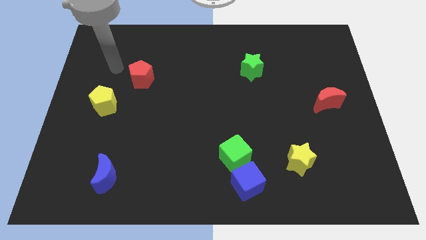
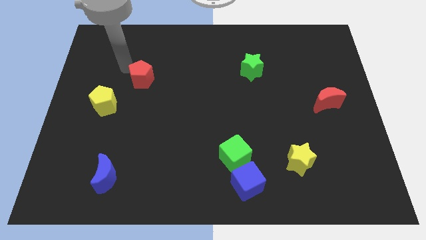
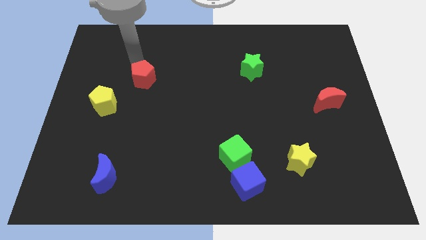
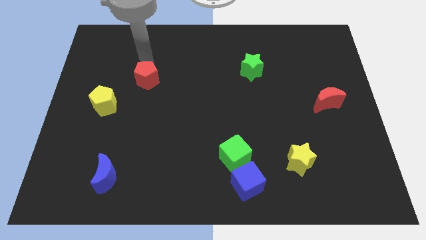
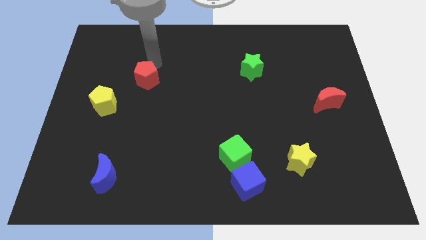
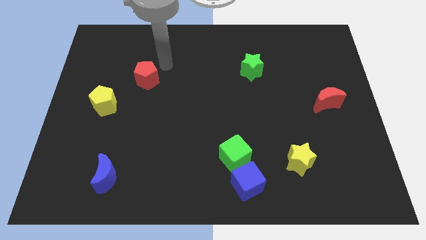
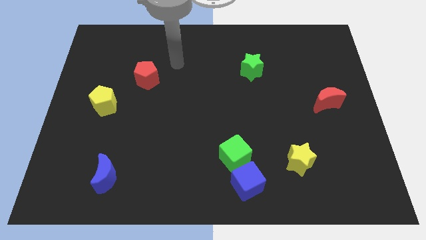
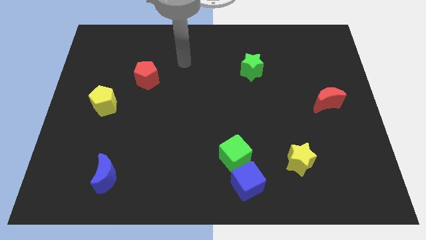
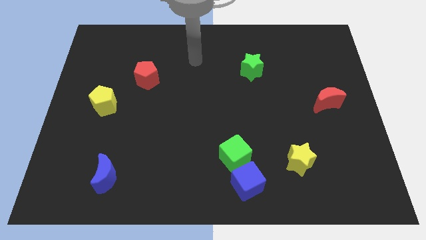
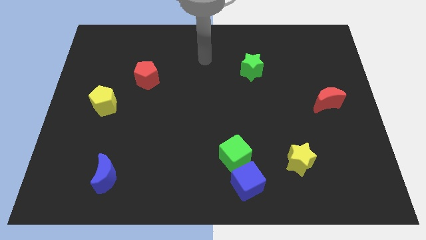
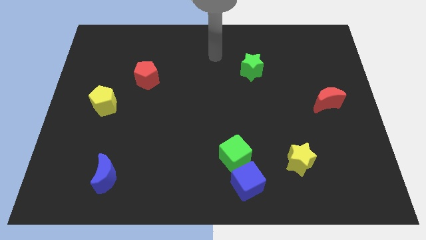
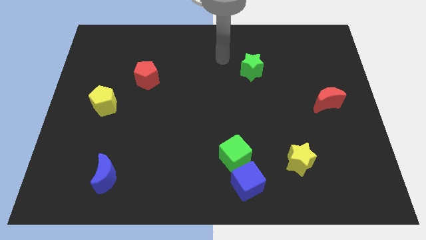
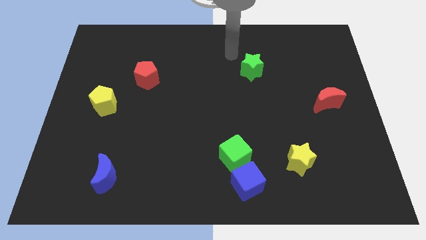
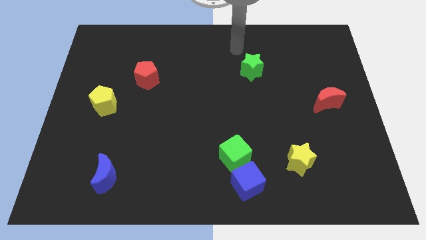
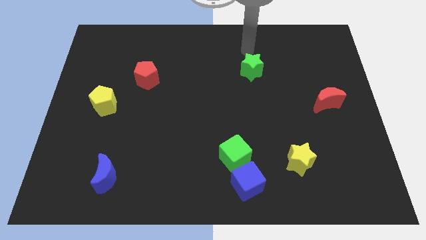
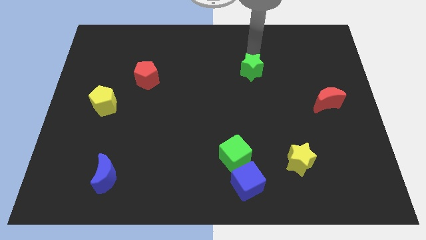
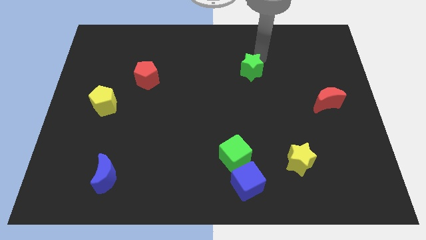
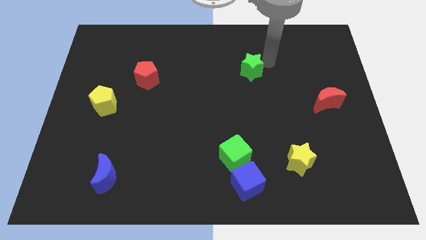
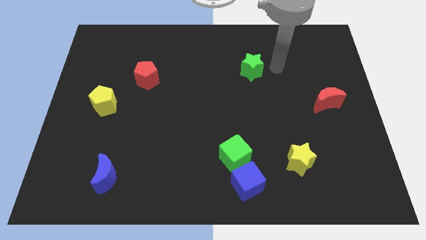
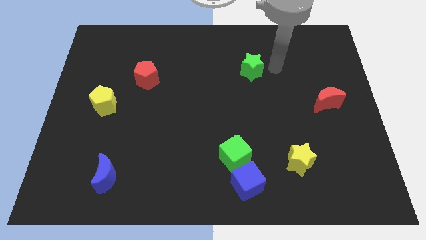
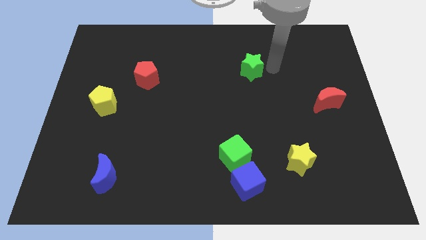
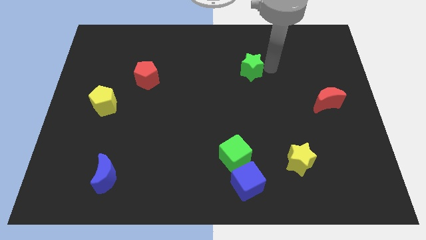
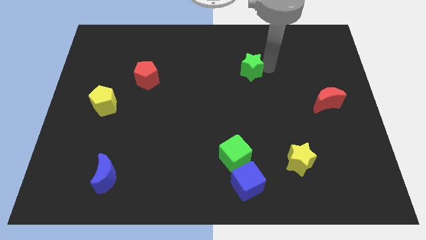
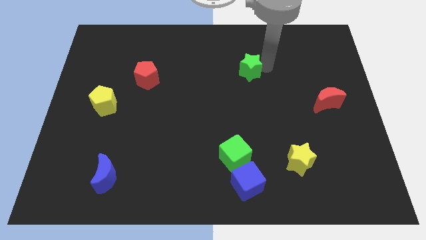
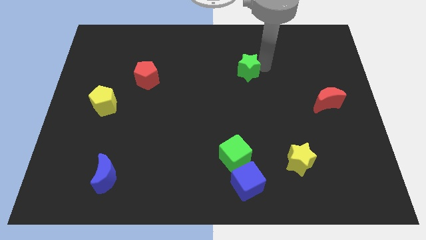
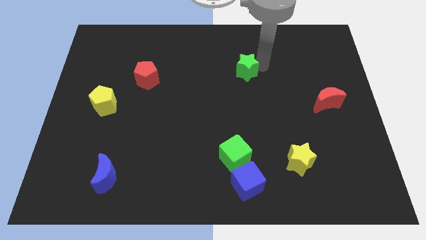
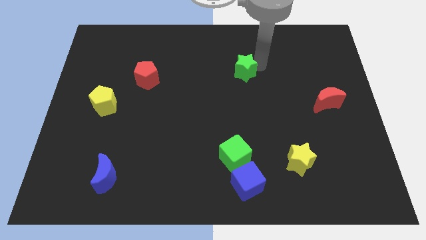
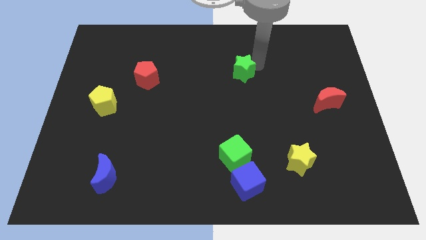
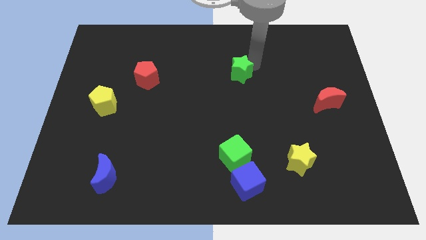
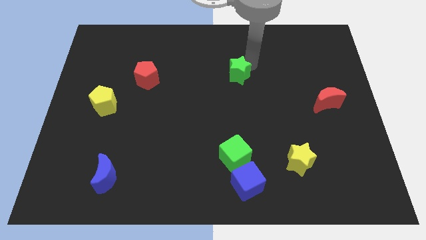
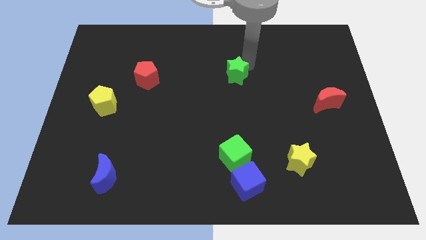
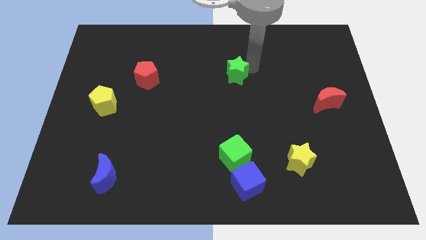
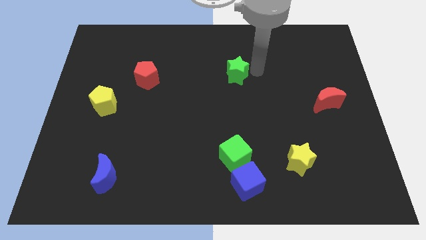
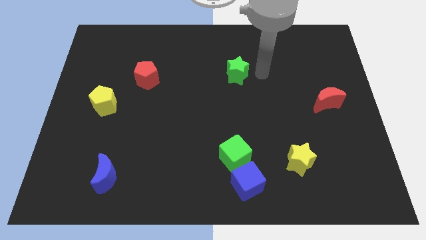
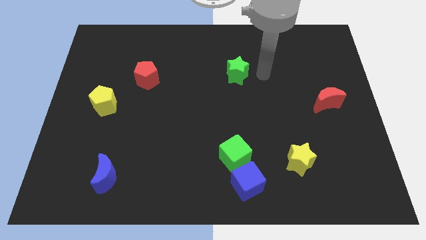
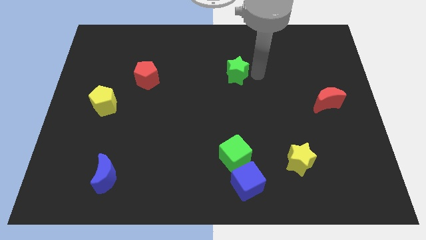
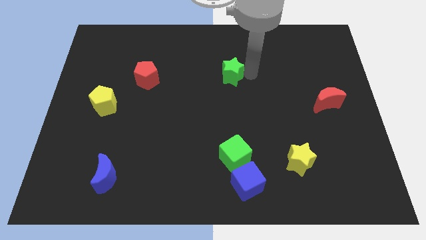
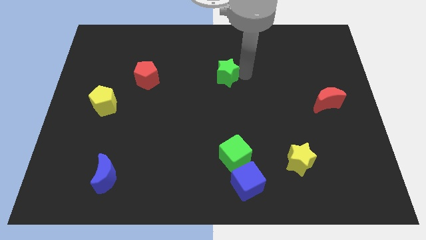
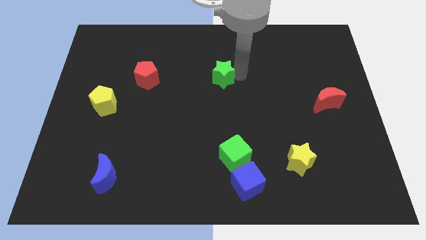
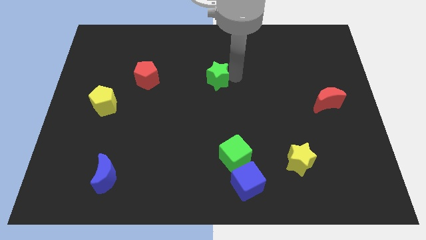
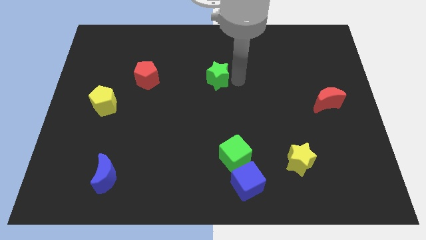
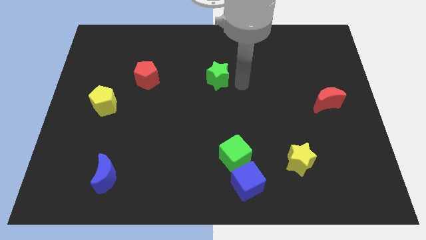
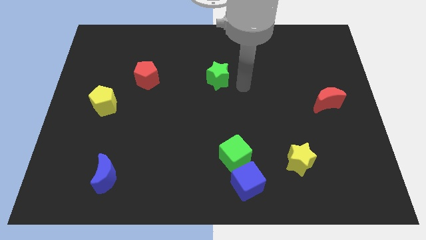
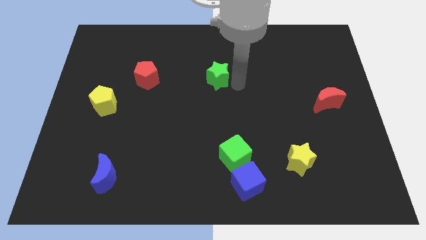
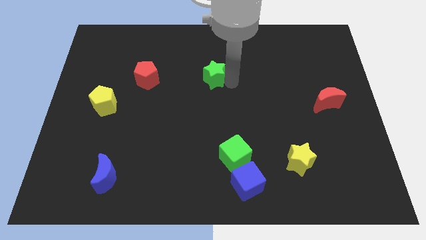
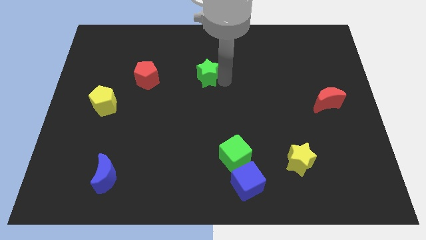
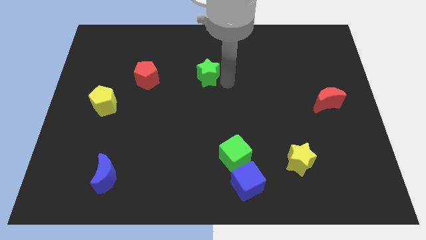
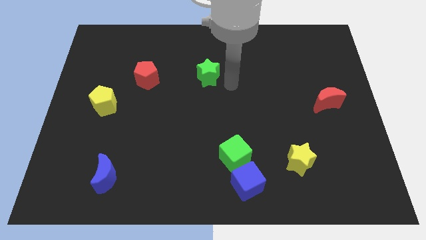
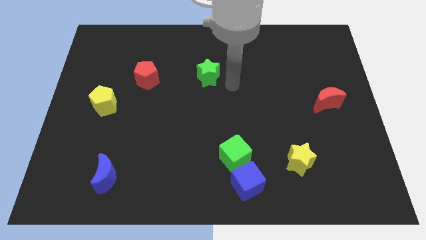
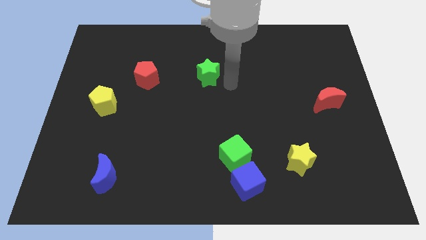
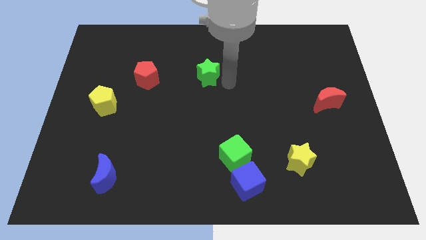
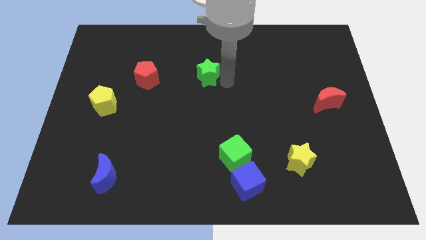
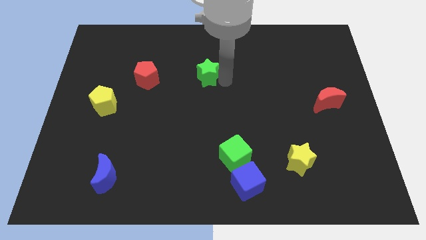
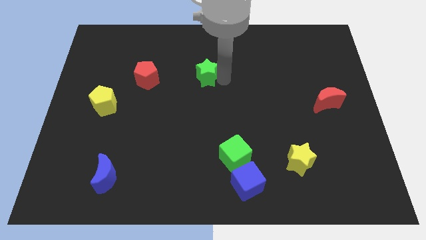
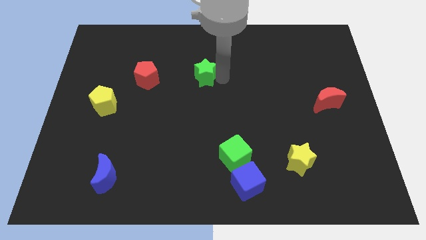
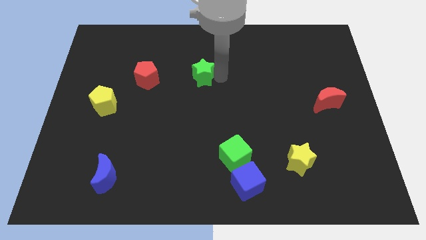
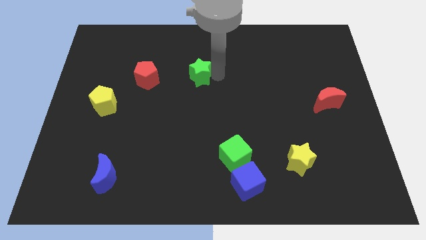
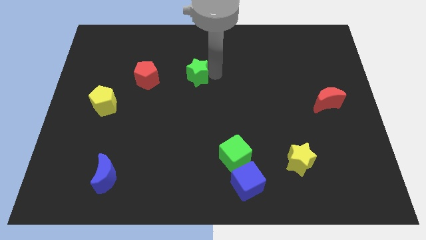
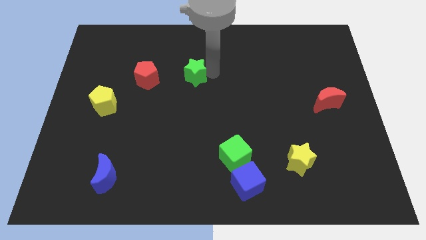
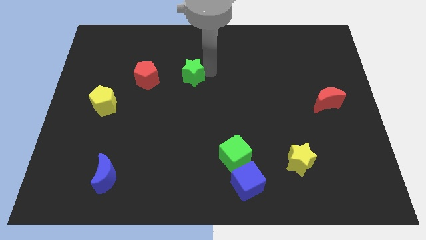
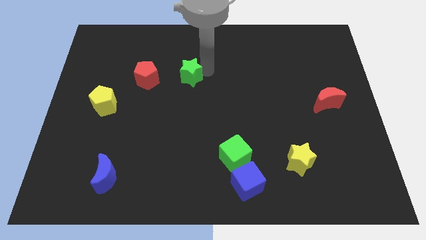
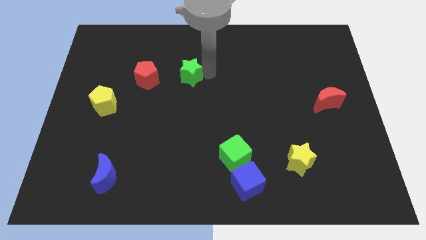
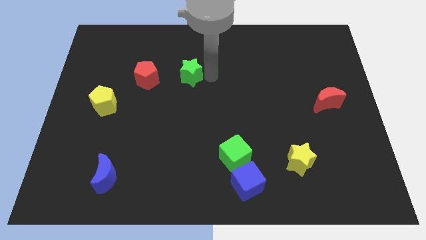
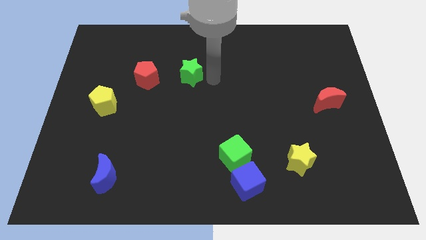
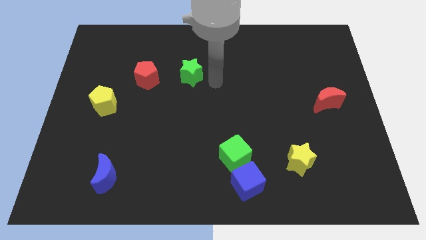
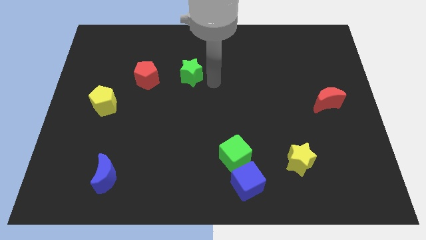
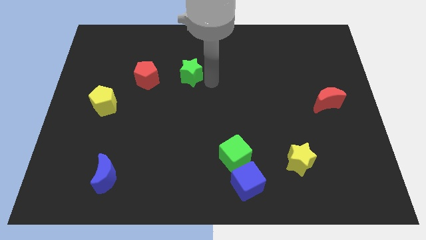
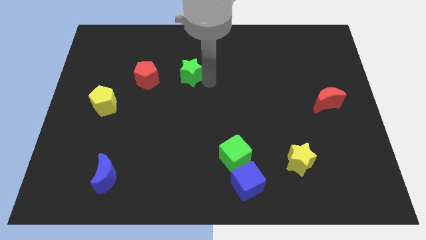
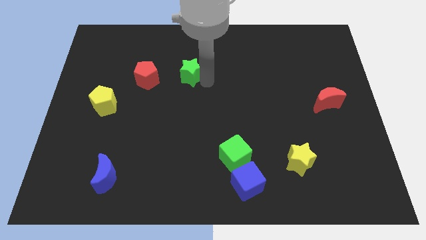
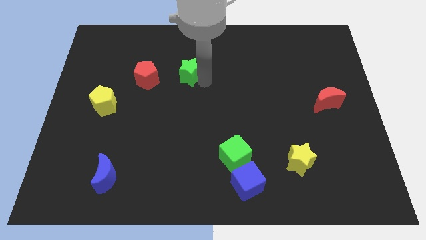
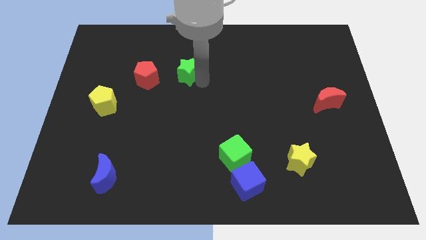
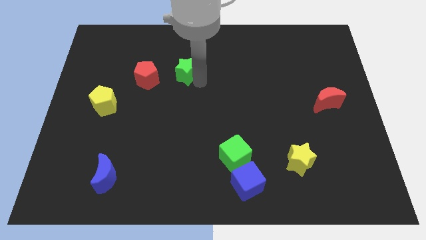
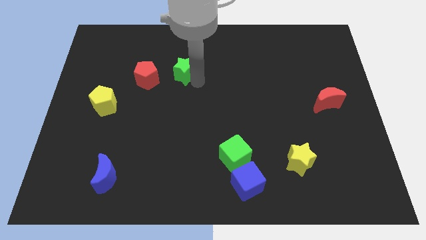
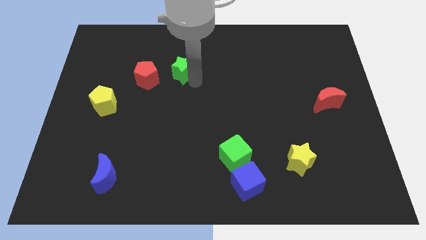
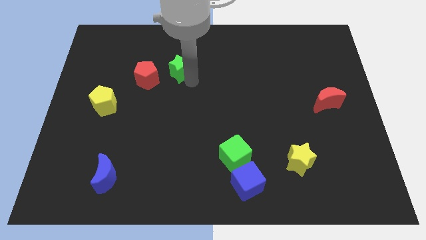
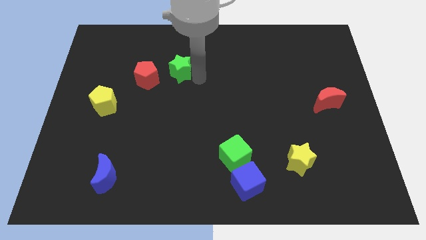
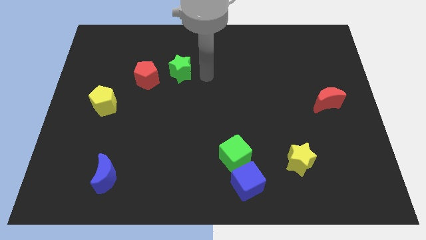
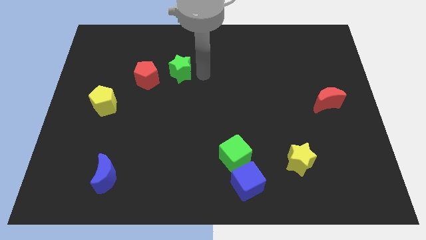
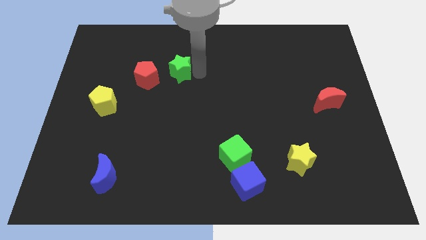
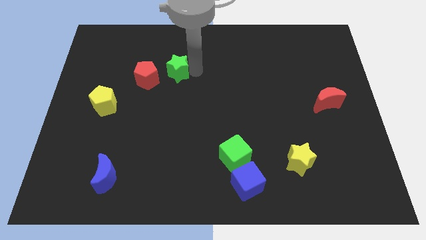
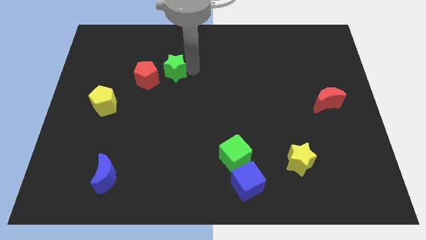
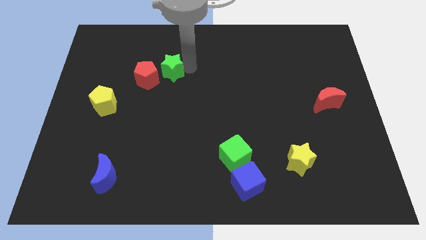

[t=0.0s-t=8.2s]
move the green star left

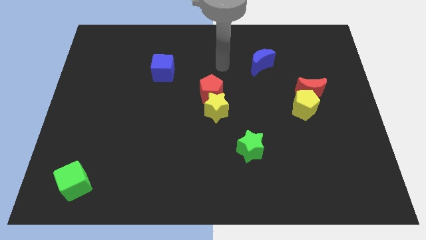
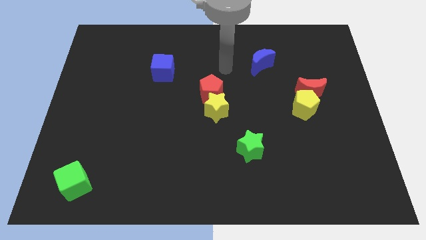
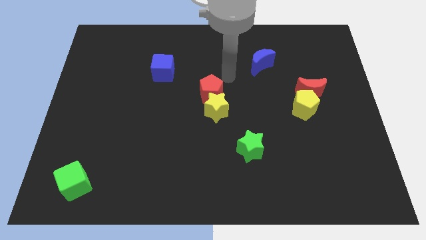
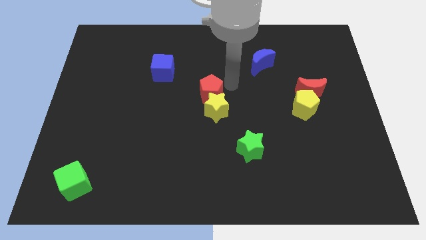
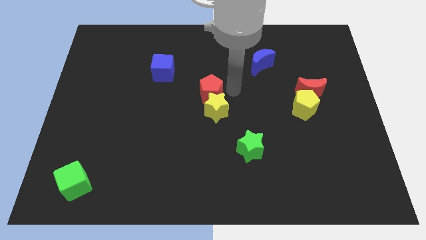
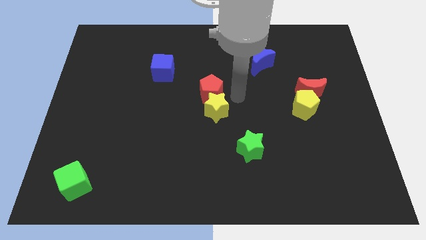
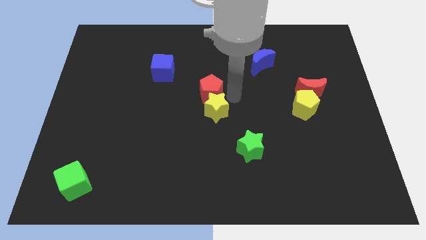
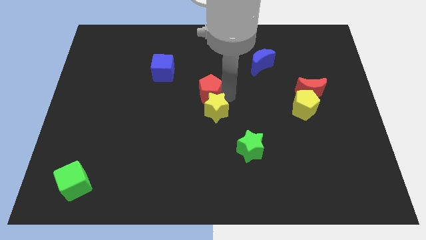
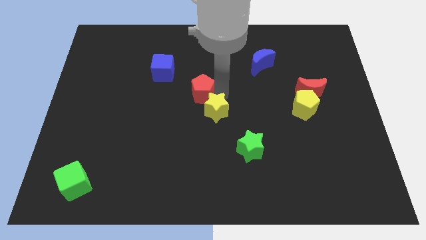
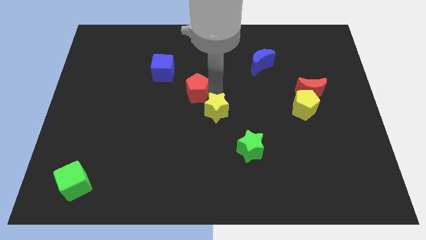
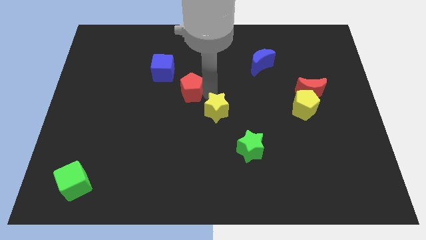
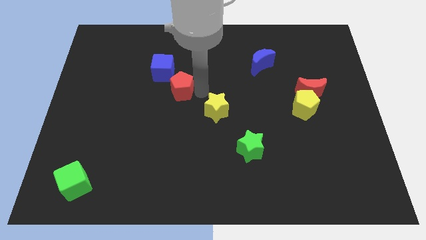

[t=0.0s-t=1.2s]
slide the red pentagon to the left a bit
